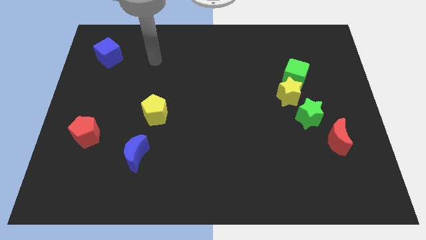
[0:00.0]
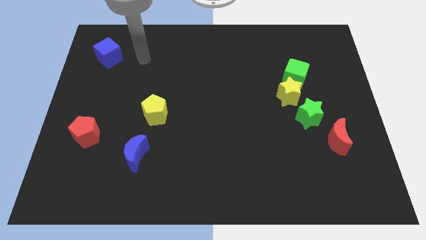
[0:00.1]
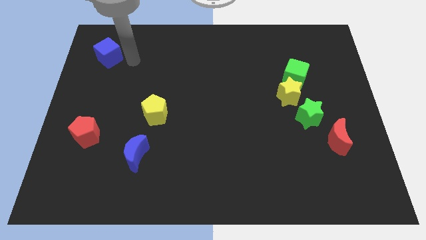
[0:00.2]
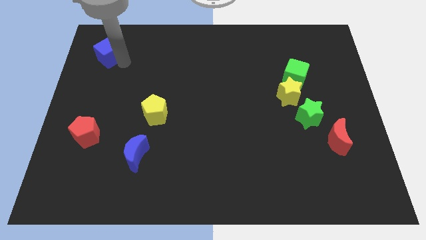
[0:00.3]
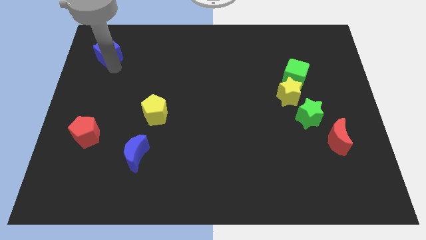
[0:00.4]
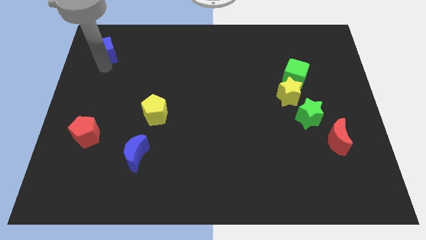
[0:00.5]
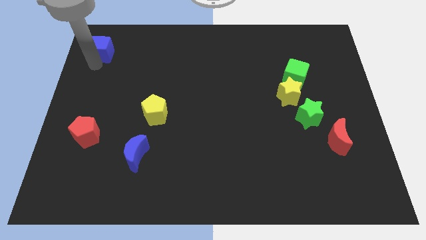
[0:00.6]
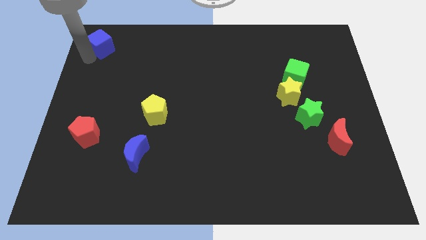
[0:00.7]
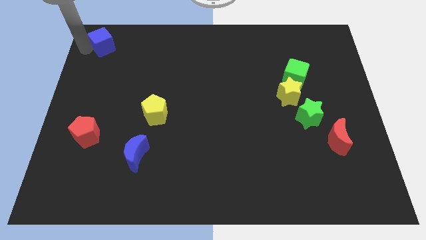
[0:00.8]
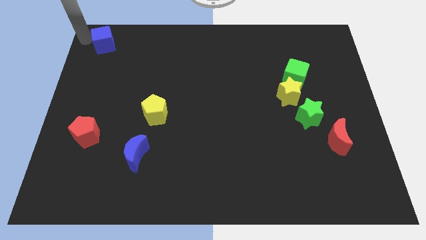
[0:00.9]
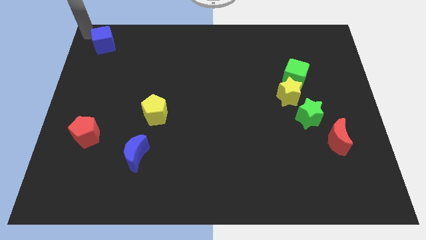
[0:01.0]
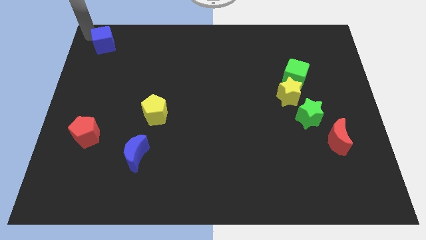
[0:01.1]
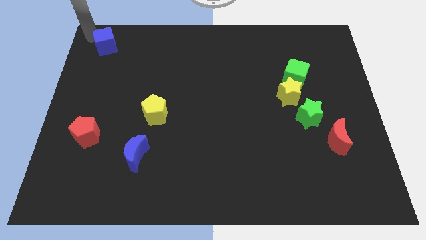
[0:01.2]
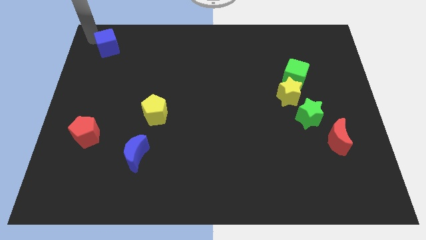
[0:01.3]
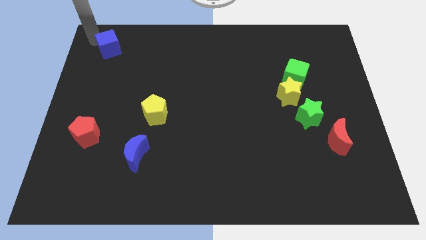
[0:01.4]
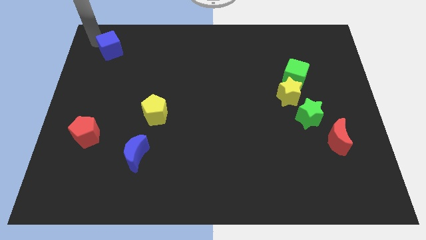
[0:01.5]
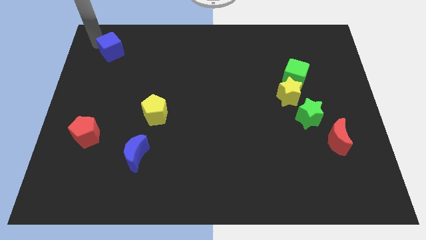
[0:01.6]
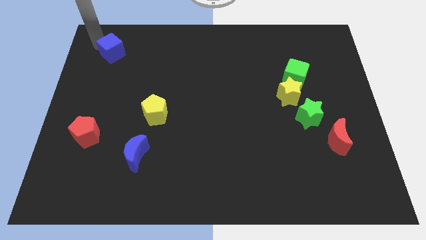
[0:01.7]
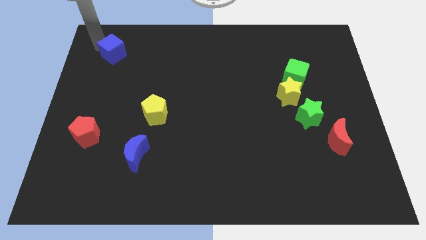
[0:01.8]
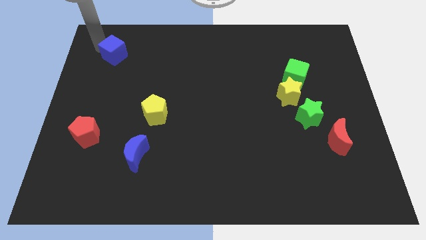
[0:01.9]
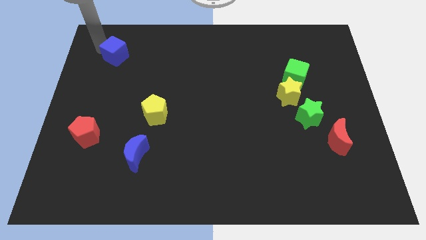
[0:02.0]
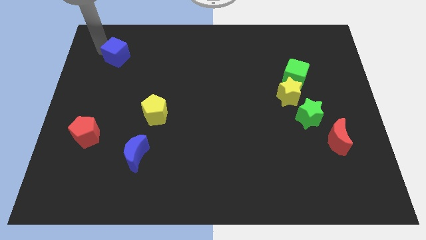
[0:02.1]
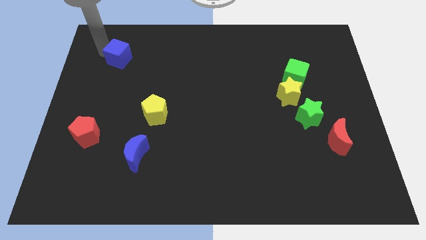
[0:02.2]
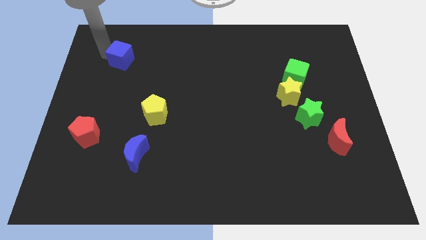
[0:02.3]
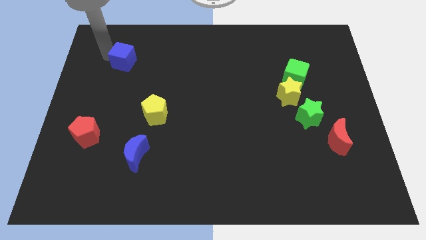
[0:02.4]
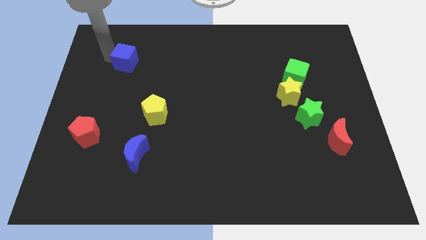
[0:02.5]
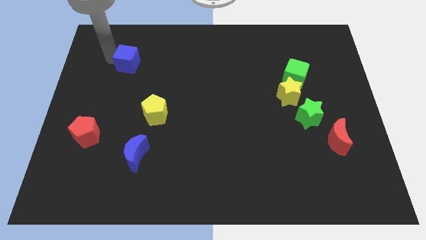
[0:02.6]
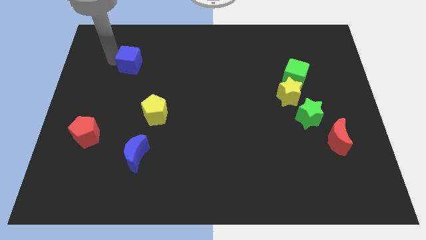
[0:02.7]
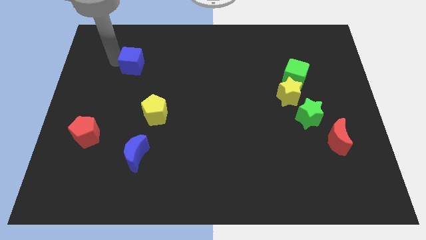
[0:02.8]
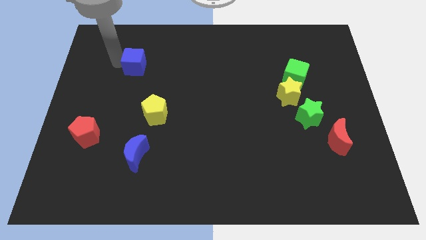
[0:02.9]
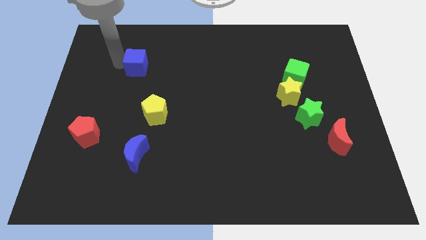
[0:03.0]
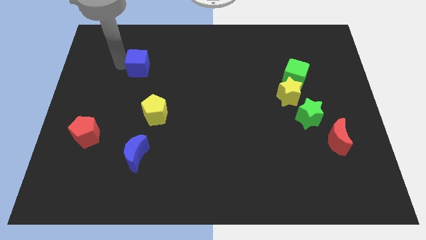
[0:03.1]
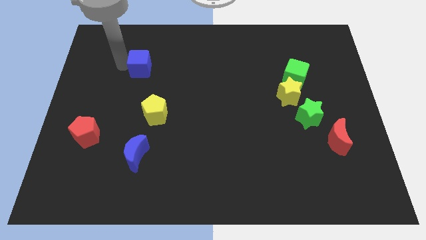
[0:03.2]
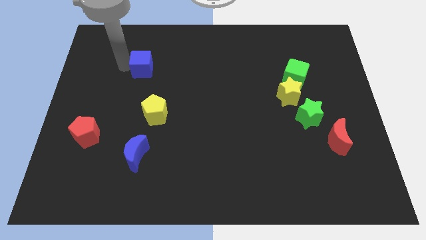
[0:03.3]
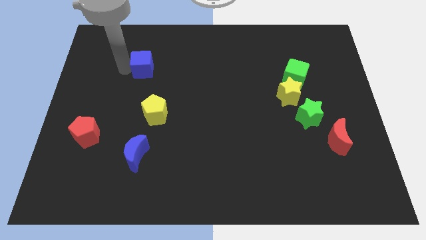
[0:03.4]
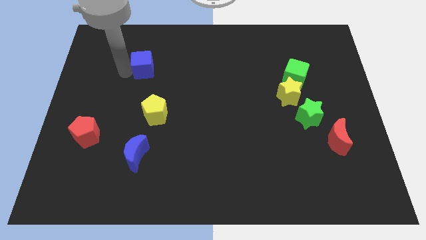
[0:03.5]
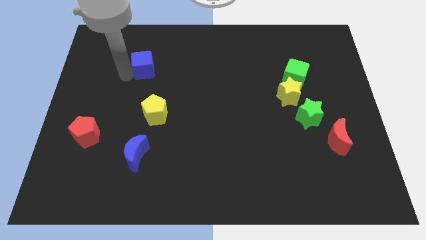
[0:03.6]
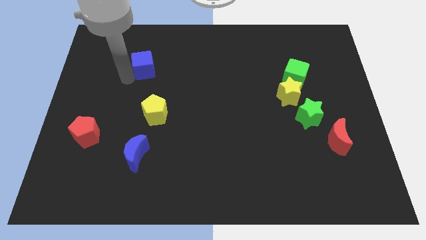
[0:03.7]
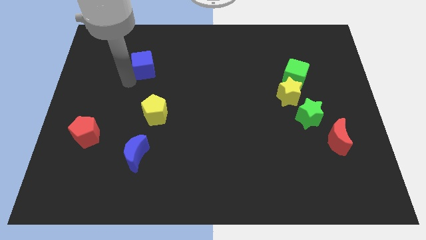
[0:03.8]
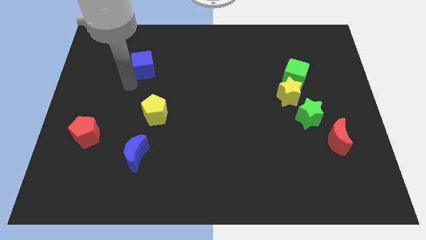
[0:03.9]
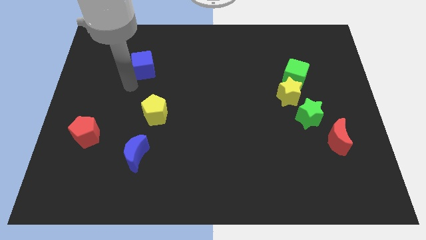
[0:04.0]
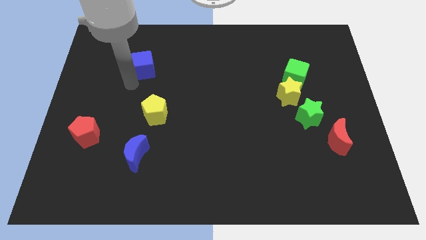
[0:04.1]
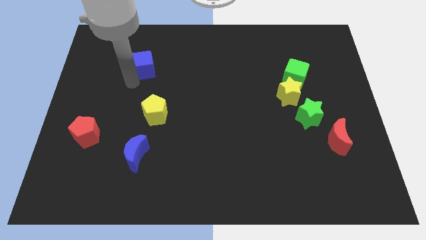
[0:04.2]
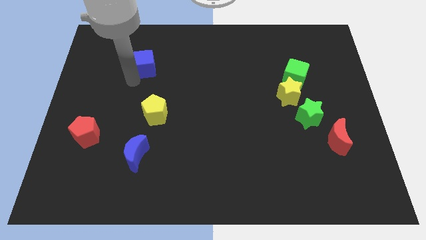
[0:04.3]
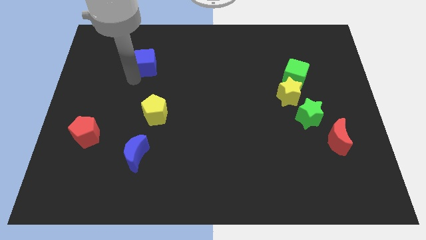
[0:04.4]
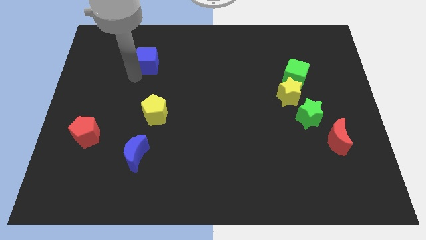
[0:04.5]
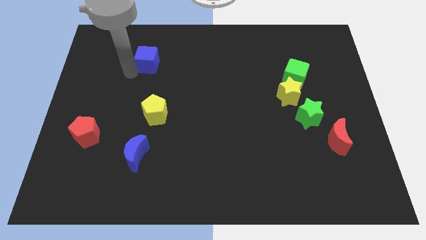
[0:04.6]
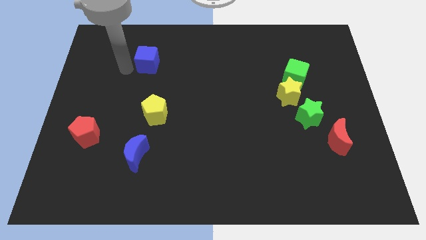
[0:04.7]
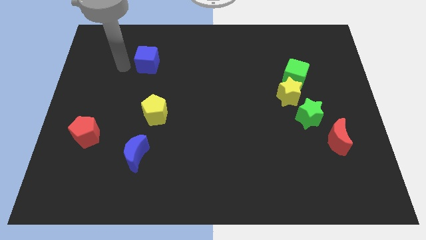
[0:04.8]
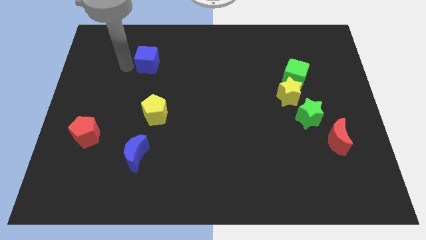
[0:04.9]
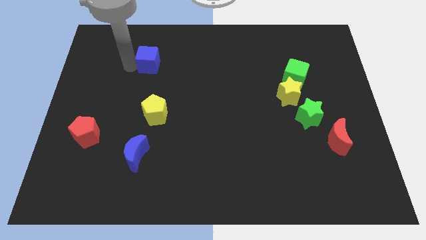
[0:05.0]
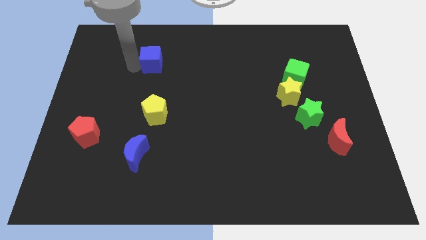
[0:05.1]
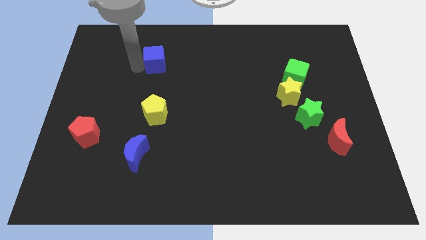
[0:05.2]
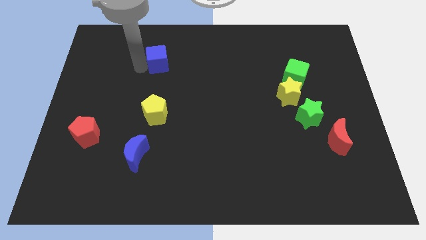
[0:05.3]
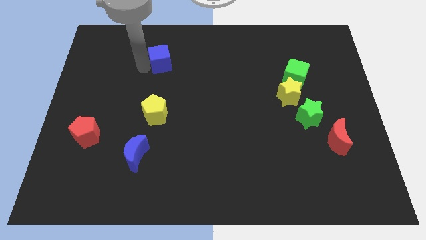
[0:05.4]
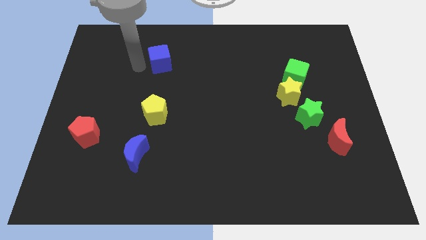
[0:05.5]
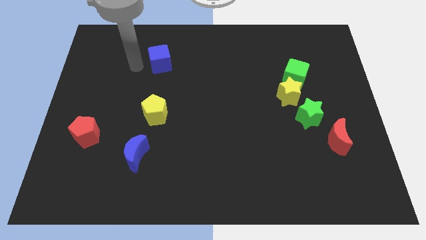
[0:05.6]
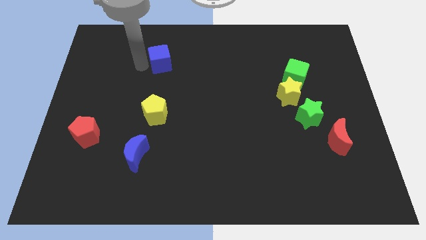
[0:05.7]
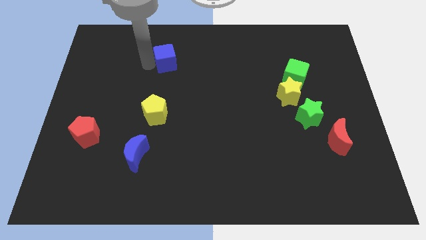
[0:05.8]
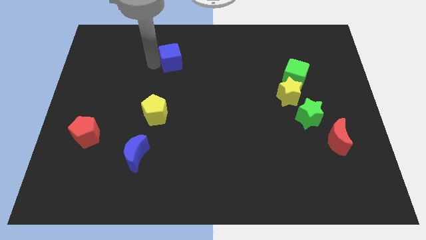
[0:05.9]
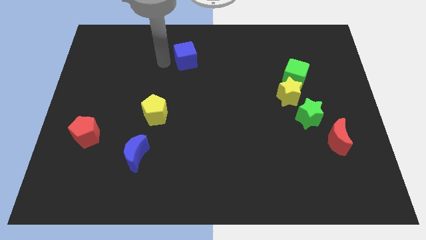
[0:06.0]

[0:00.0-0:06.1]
push the blue cube right

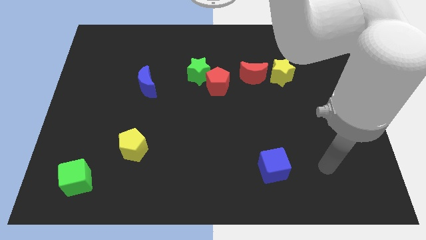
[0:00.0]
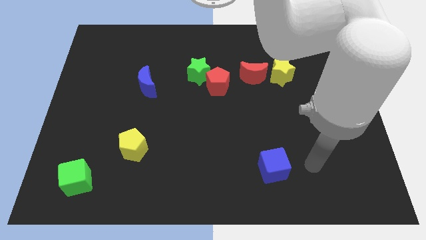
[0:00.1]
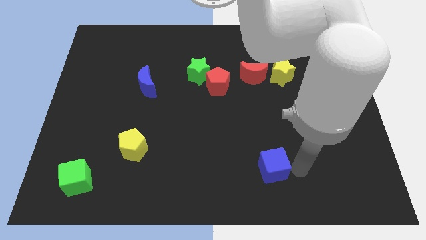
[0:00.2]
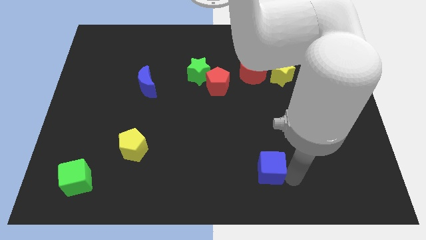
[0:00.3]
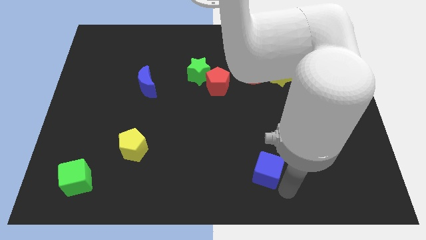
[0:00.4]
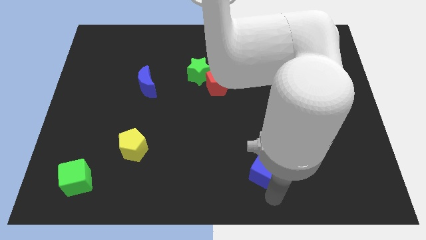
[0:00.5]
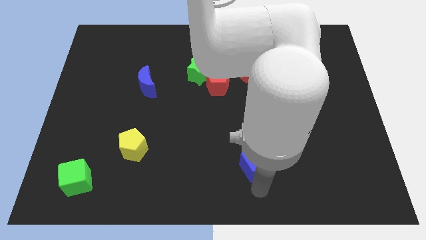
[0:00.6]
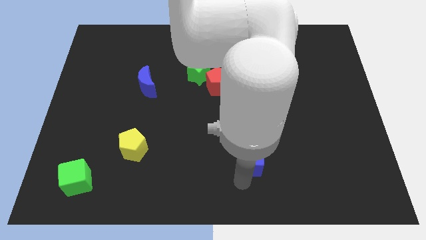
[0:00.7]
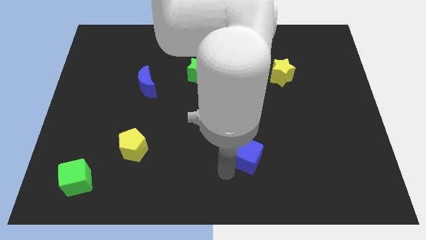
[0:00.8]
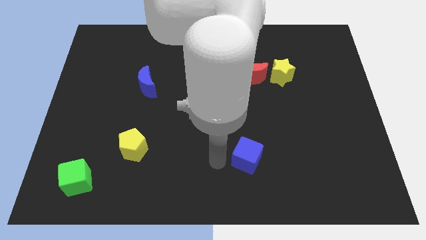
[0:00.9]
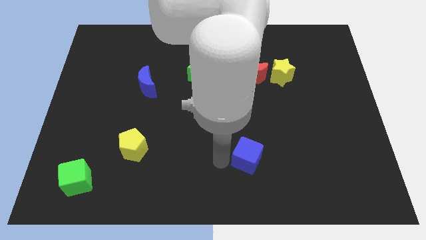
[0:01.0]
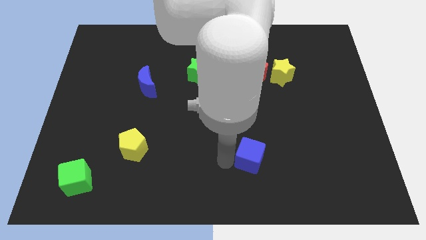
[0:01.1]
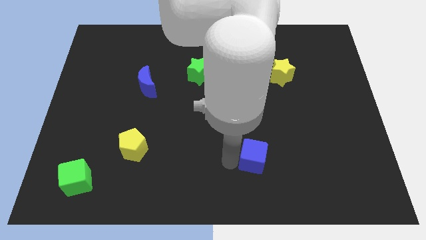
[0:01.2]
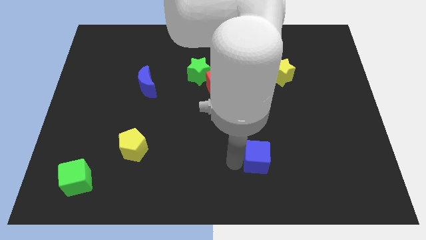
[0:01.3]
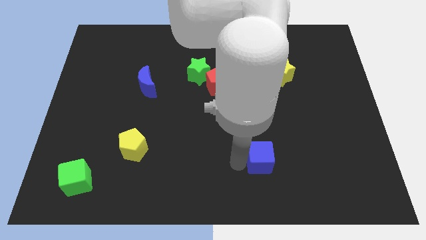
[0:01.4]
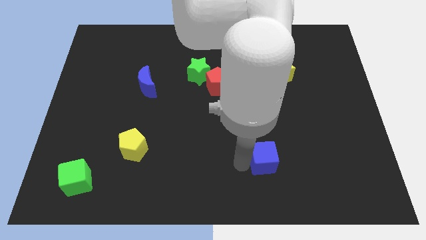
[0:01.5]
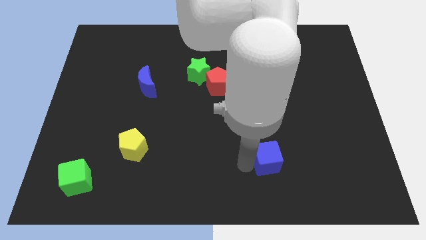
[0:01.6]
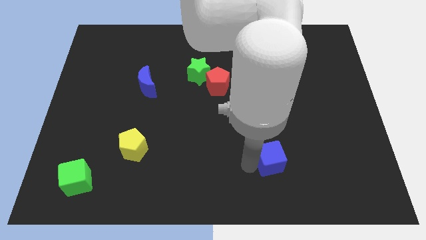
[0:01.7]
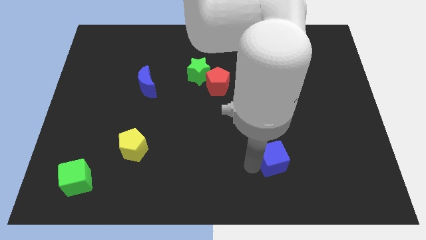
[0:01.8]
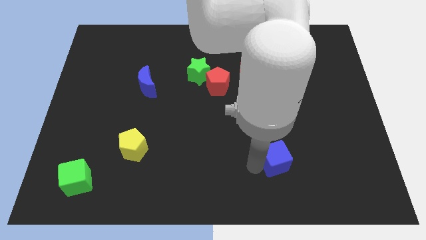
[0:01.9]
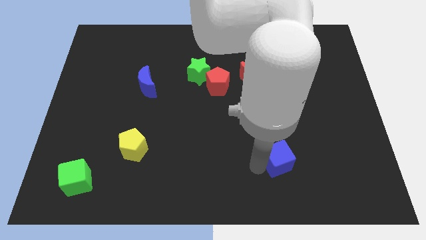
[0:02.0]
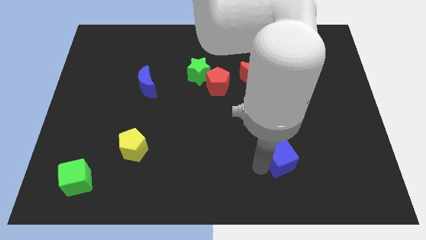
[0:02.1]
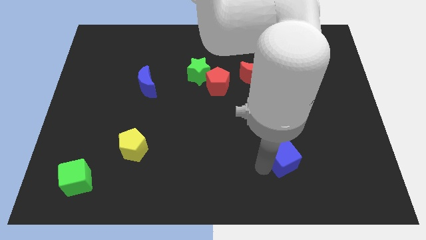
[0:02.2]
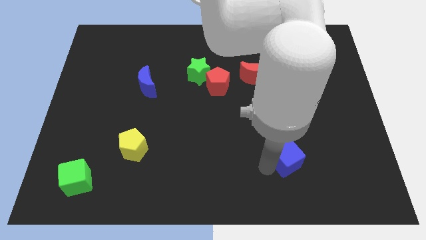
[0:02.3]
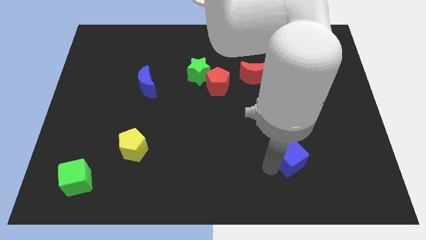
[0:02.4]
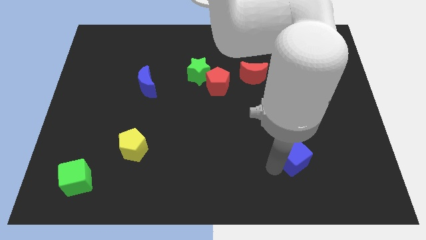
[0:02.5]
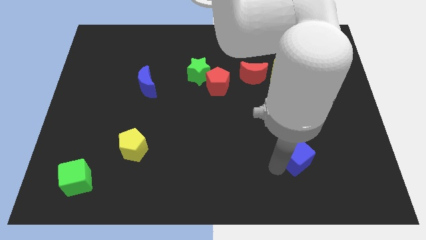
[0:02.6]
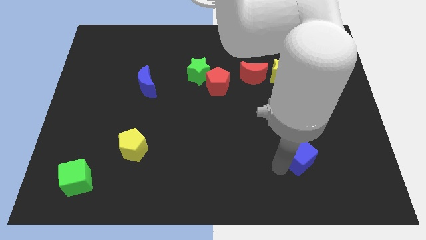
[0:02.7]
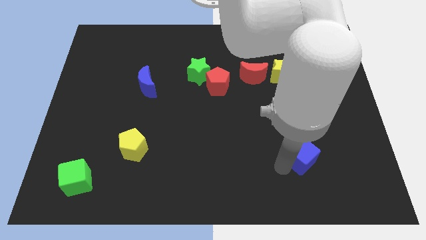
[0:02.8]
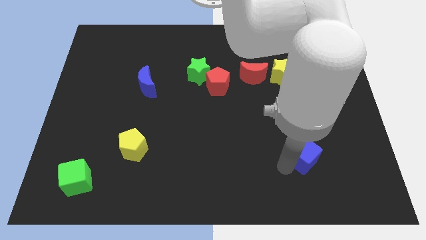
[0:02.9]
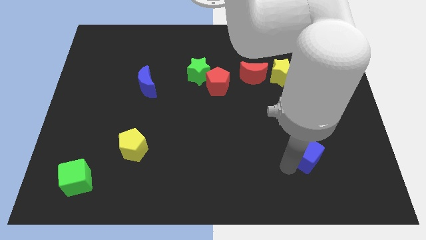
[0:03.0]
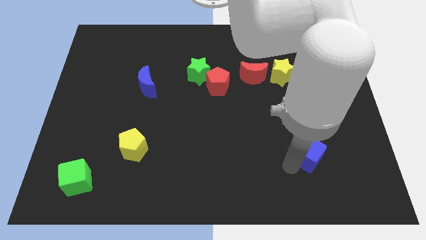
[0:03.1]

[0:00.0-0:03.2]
slightly push the blue cube upwards and to the right
